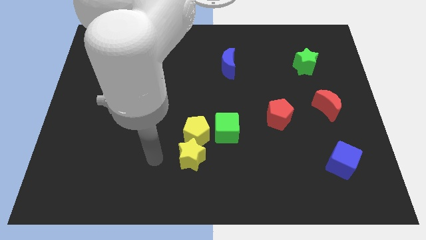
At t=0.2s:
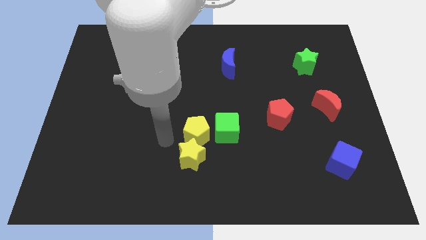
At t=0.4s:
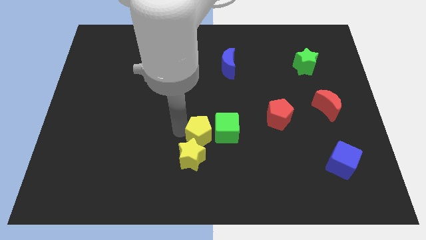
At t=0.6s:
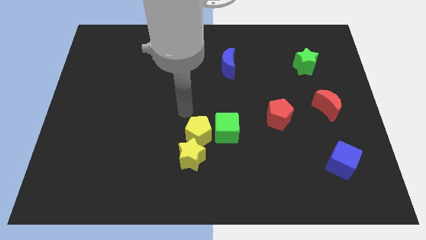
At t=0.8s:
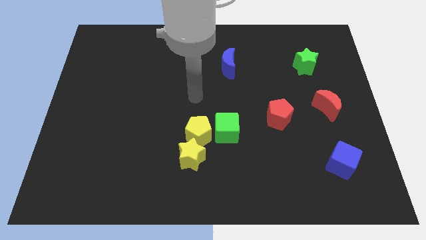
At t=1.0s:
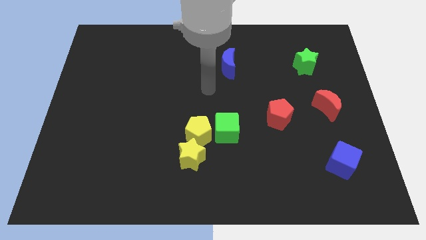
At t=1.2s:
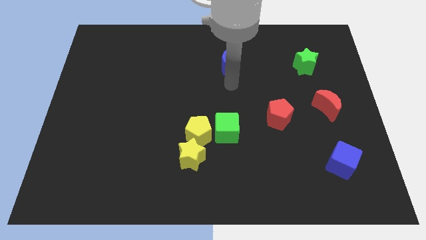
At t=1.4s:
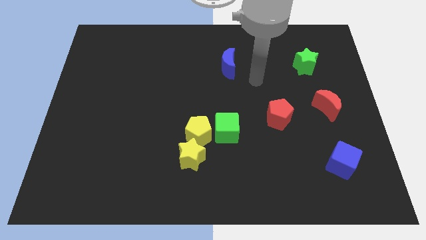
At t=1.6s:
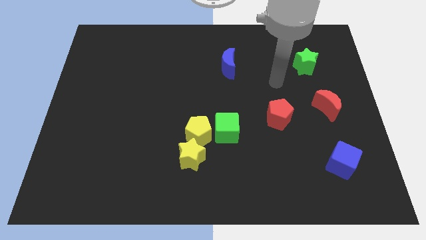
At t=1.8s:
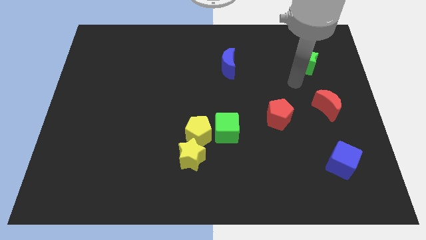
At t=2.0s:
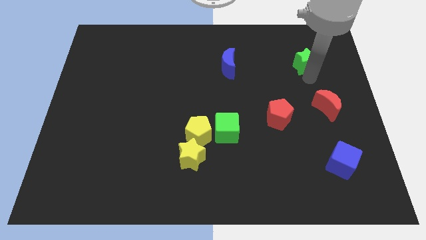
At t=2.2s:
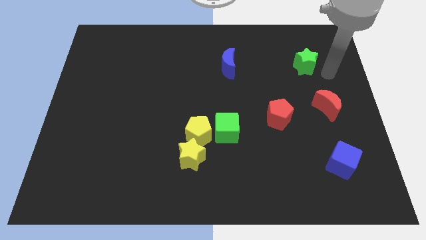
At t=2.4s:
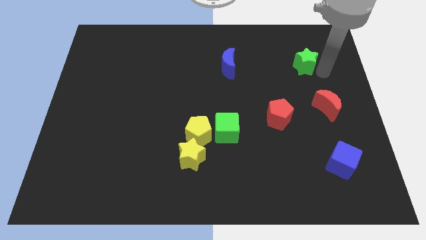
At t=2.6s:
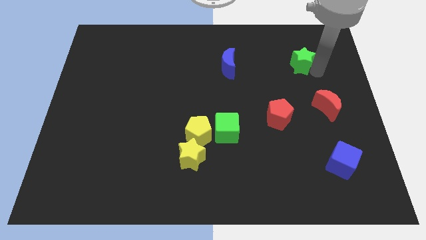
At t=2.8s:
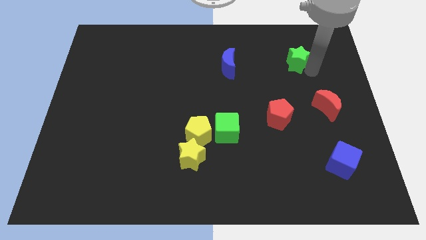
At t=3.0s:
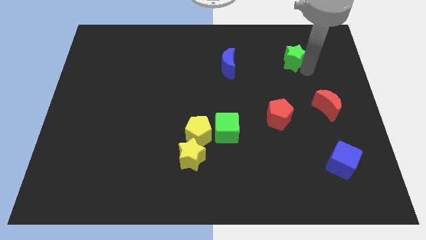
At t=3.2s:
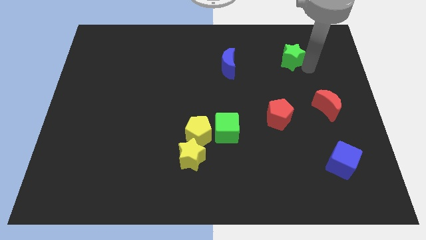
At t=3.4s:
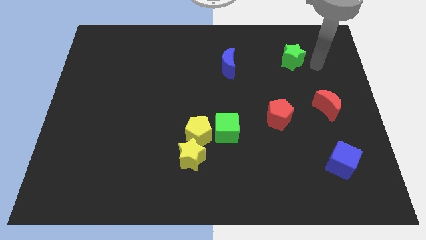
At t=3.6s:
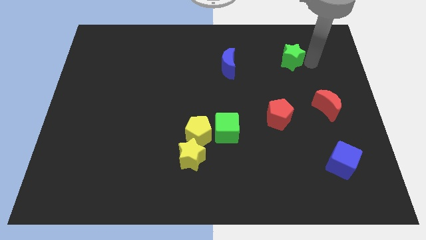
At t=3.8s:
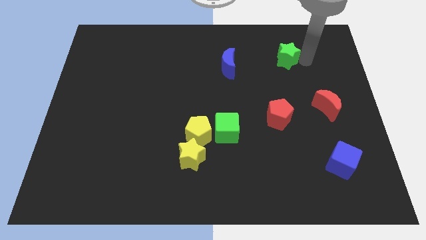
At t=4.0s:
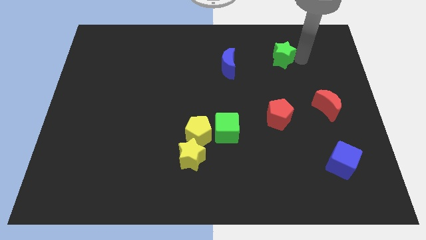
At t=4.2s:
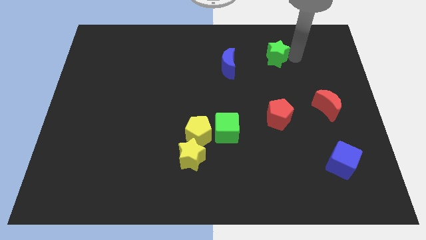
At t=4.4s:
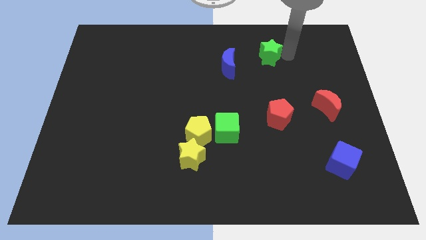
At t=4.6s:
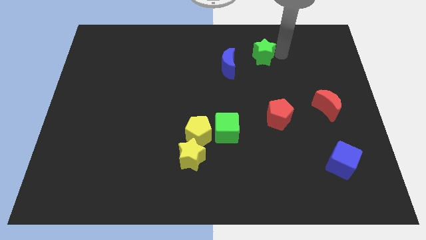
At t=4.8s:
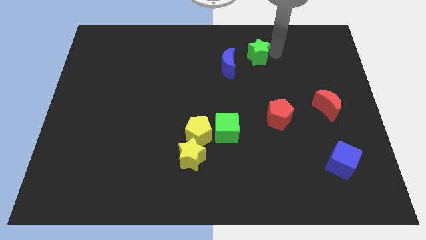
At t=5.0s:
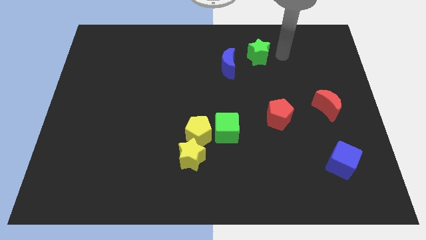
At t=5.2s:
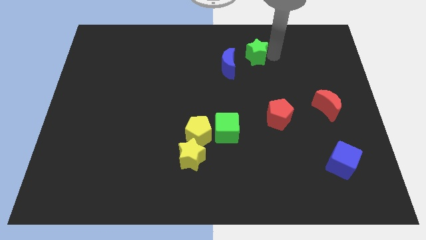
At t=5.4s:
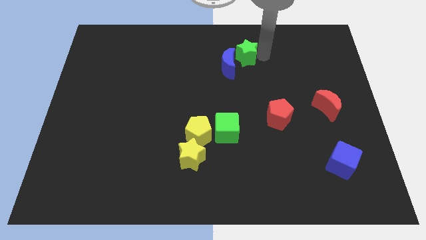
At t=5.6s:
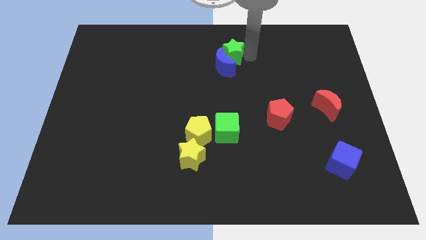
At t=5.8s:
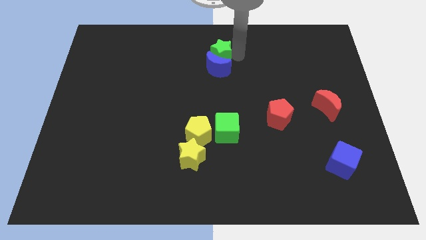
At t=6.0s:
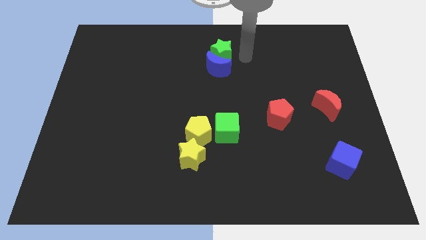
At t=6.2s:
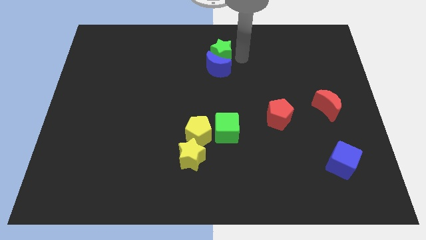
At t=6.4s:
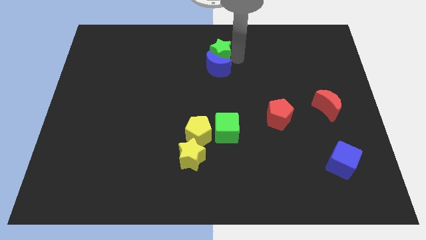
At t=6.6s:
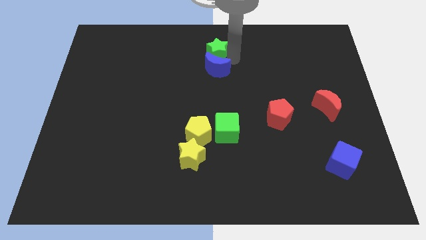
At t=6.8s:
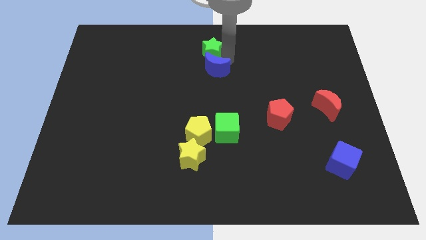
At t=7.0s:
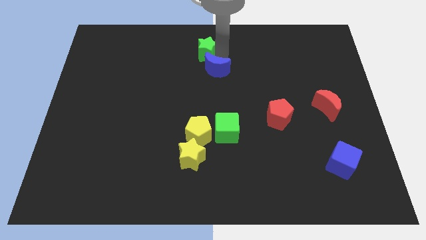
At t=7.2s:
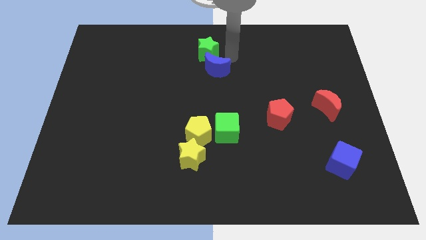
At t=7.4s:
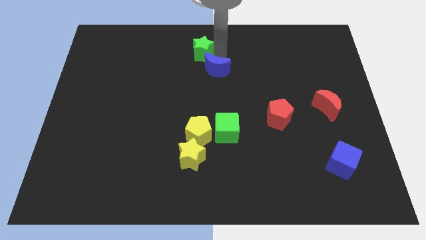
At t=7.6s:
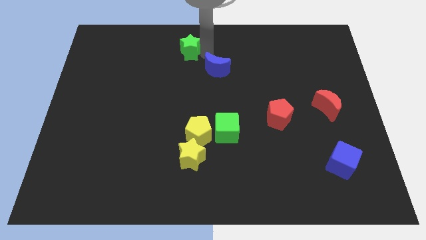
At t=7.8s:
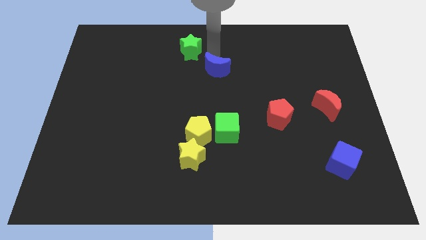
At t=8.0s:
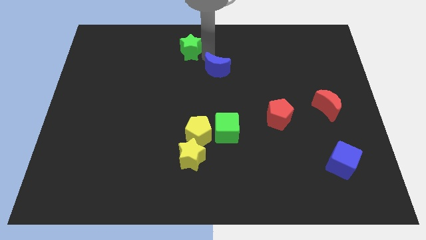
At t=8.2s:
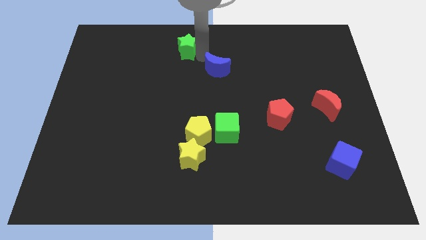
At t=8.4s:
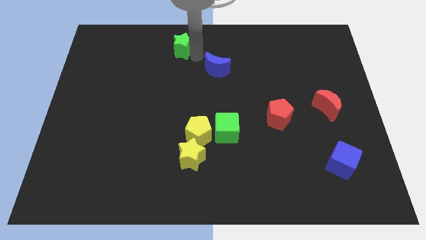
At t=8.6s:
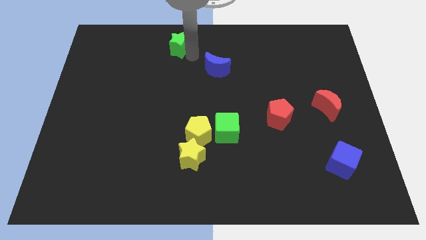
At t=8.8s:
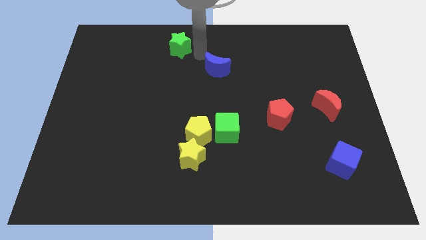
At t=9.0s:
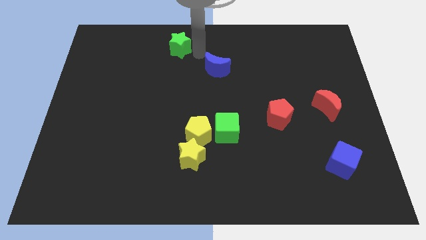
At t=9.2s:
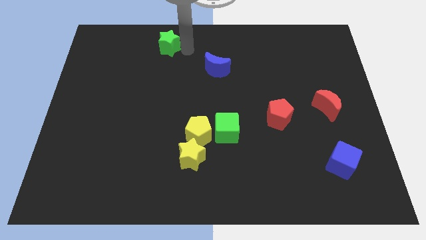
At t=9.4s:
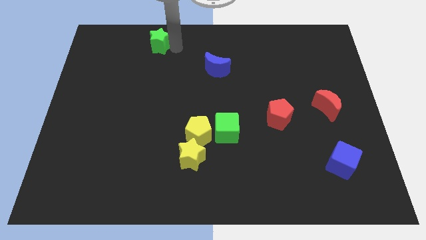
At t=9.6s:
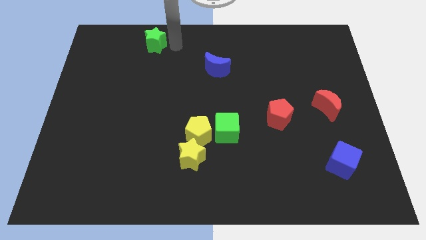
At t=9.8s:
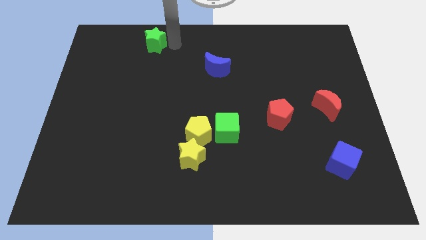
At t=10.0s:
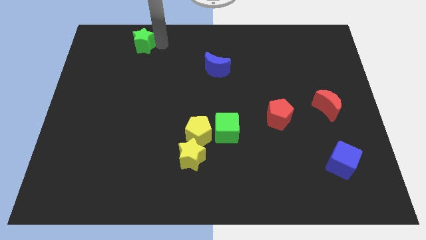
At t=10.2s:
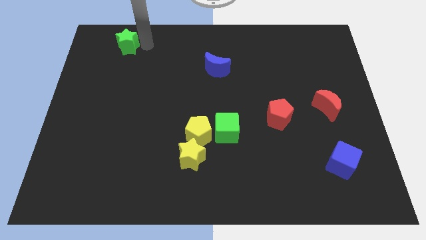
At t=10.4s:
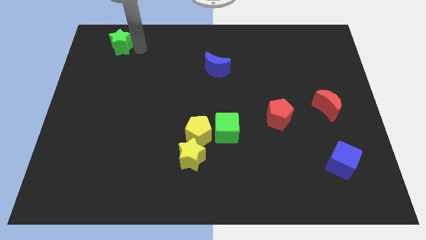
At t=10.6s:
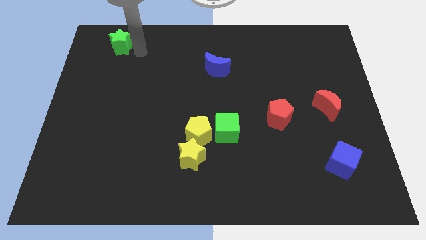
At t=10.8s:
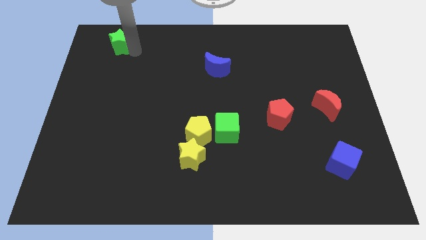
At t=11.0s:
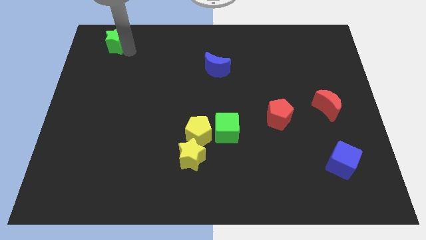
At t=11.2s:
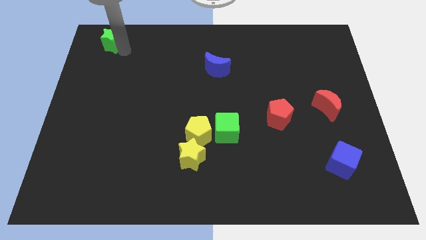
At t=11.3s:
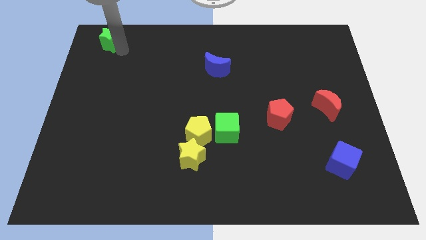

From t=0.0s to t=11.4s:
put the green star to the top left of the board

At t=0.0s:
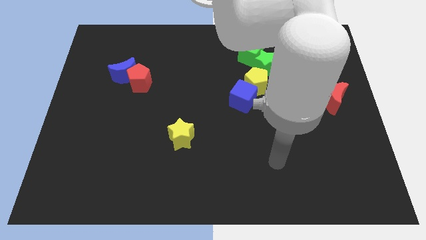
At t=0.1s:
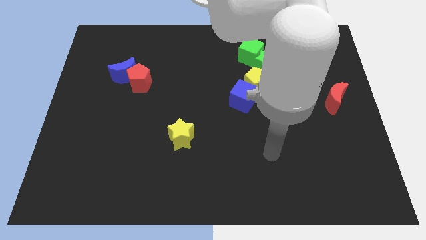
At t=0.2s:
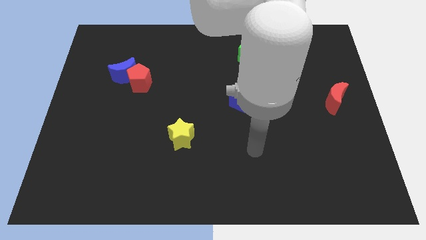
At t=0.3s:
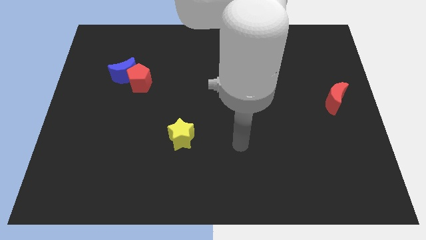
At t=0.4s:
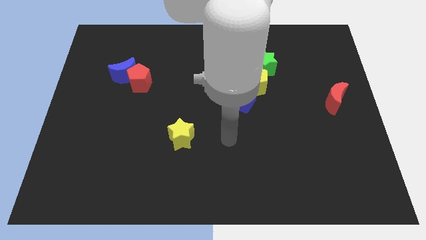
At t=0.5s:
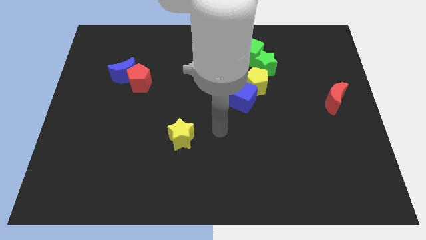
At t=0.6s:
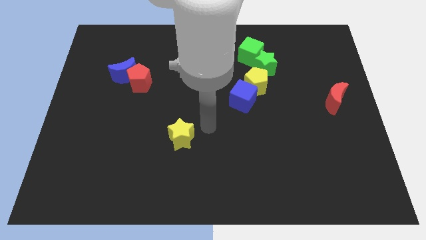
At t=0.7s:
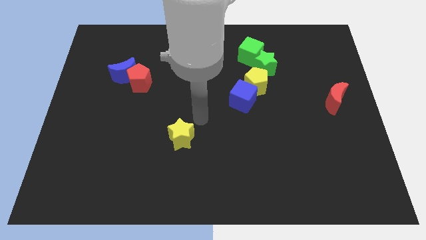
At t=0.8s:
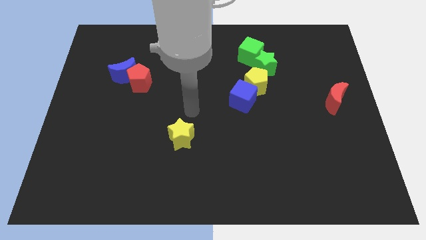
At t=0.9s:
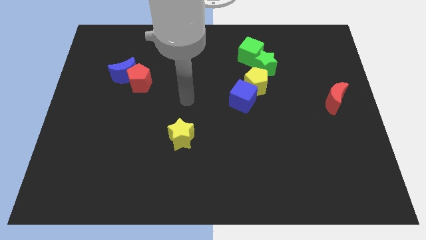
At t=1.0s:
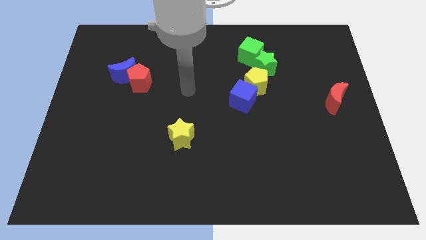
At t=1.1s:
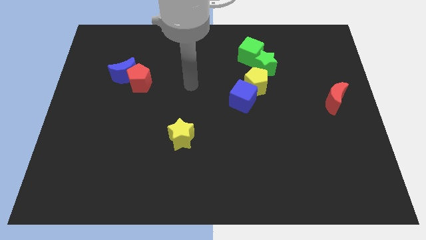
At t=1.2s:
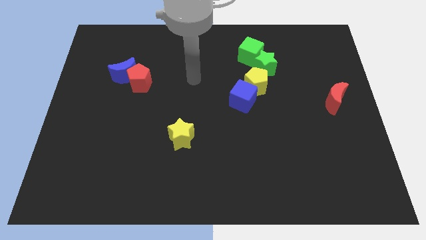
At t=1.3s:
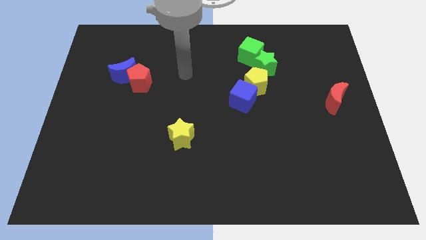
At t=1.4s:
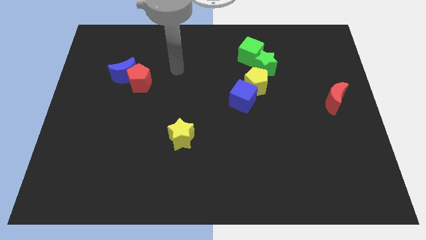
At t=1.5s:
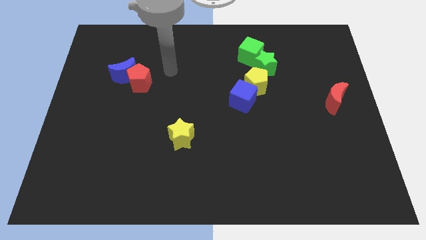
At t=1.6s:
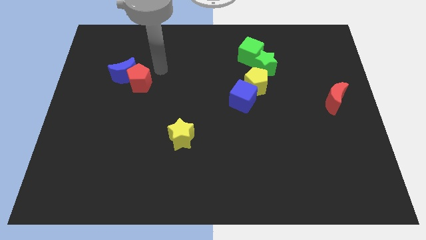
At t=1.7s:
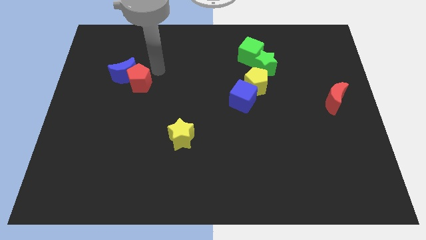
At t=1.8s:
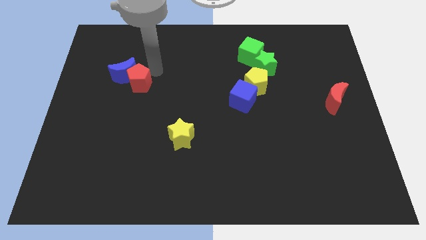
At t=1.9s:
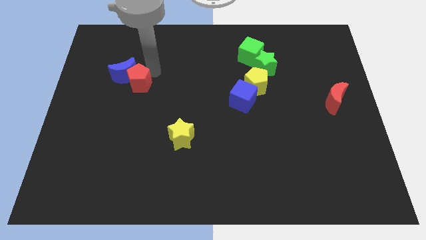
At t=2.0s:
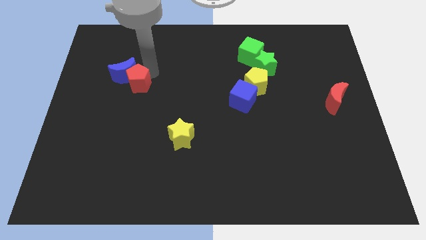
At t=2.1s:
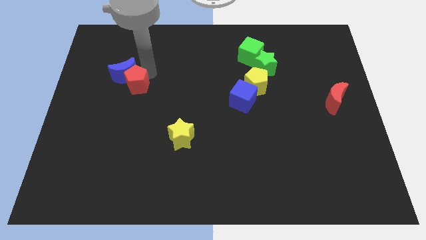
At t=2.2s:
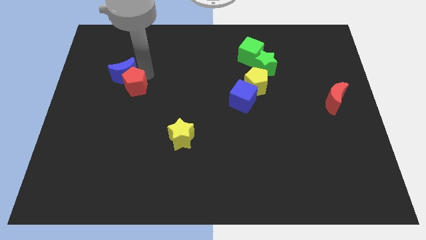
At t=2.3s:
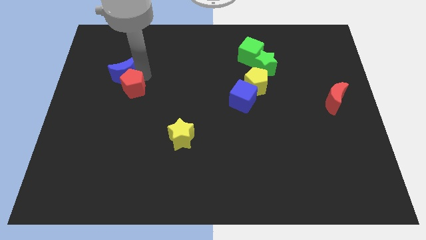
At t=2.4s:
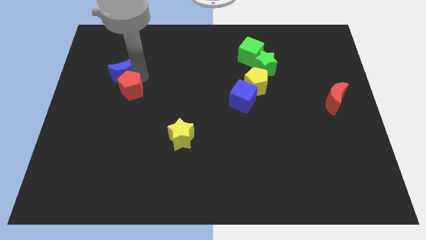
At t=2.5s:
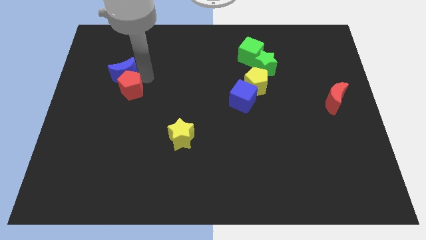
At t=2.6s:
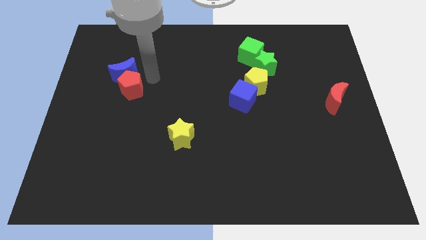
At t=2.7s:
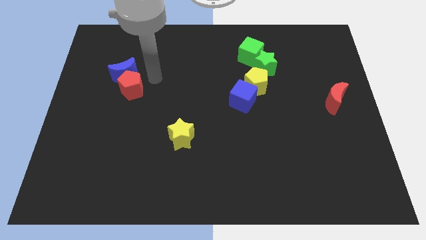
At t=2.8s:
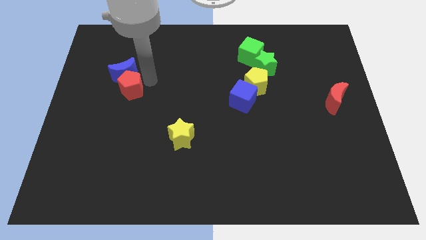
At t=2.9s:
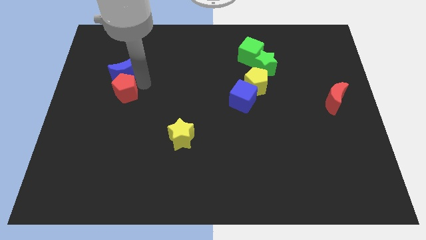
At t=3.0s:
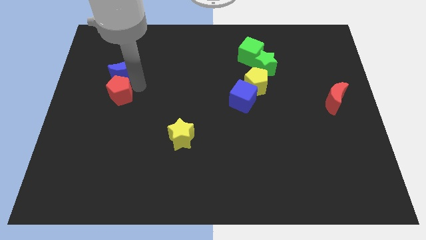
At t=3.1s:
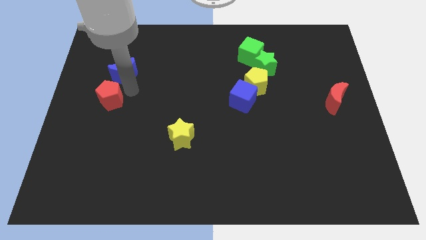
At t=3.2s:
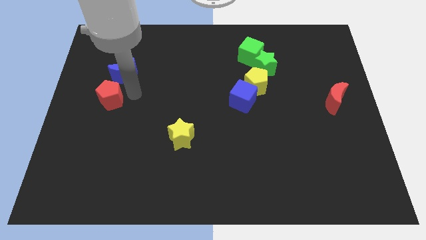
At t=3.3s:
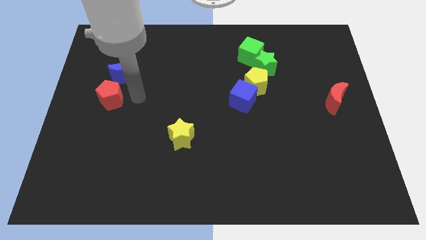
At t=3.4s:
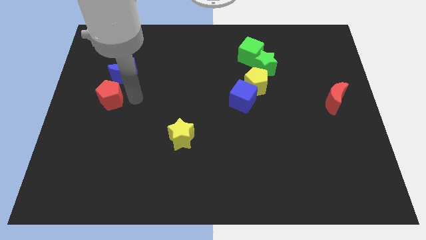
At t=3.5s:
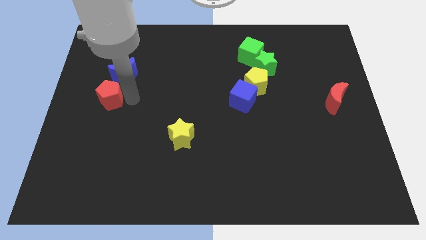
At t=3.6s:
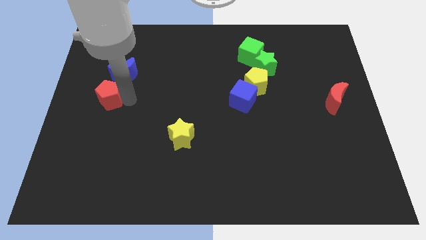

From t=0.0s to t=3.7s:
slide the red pentagon to the left side
